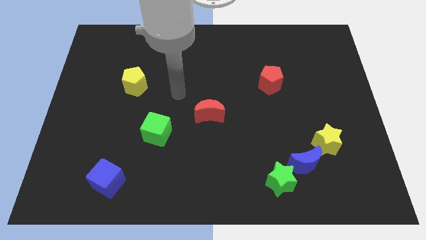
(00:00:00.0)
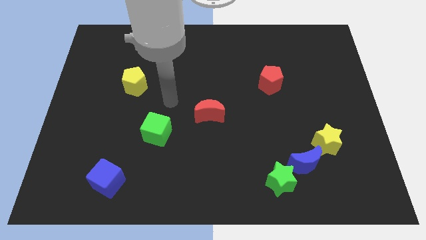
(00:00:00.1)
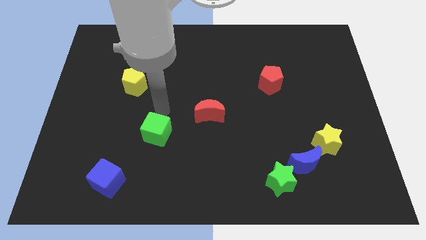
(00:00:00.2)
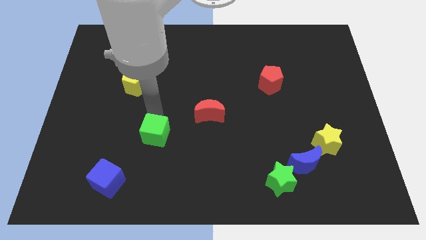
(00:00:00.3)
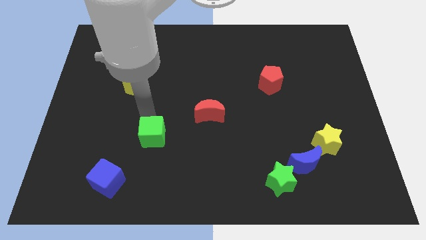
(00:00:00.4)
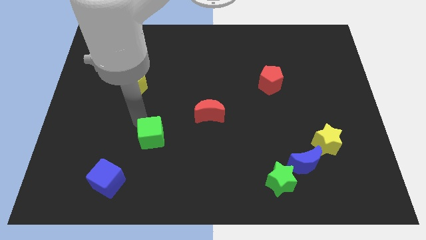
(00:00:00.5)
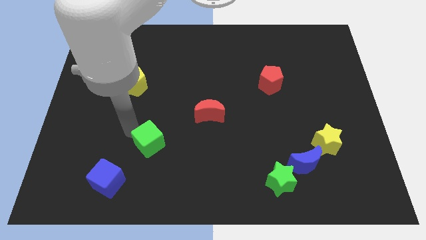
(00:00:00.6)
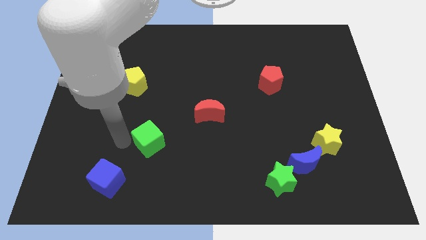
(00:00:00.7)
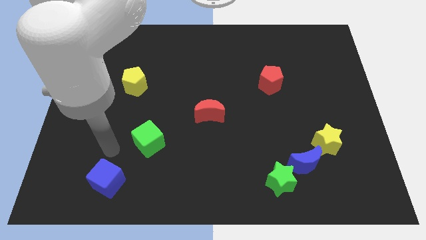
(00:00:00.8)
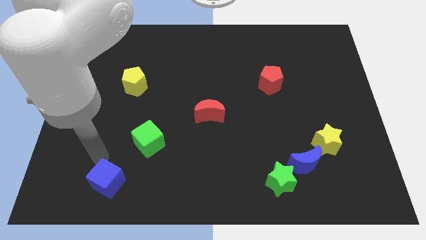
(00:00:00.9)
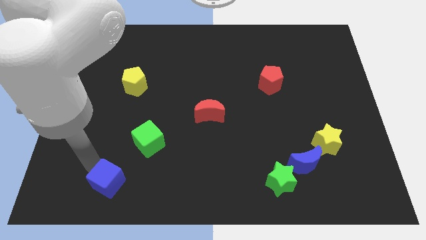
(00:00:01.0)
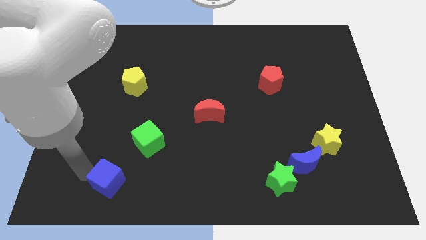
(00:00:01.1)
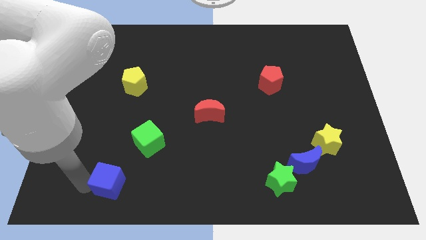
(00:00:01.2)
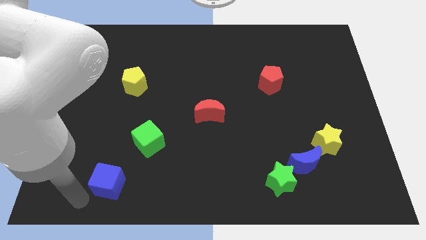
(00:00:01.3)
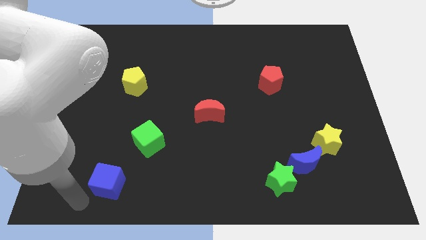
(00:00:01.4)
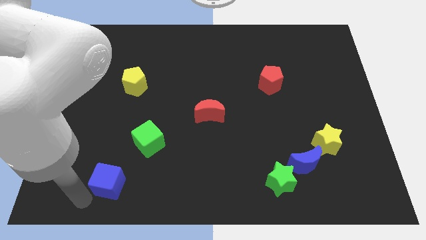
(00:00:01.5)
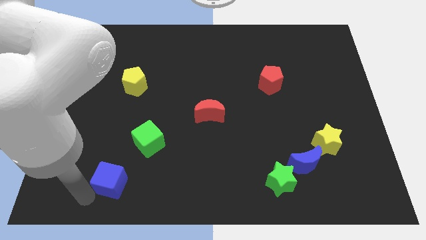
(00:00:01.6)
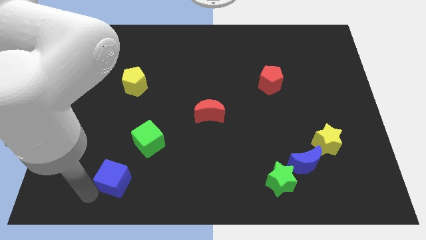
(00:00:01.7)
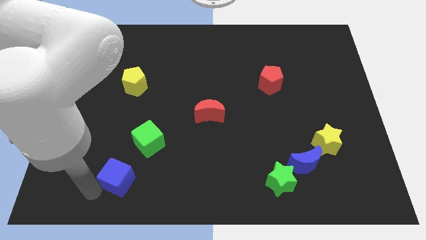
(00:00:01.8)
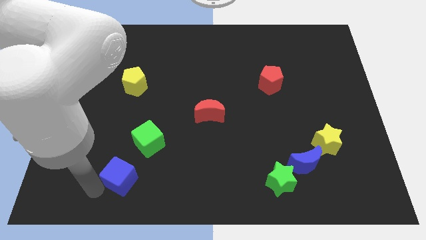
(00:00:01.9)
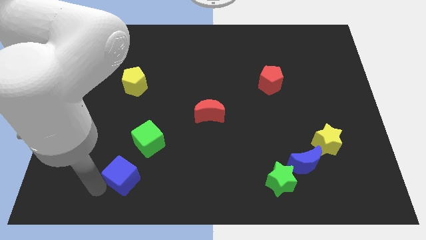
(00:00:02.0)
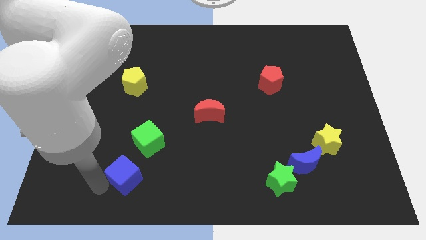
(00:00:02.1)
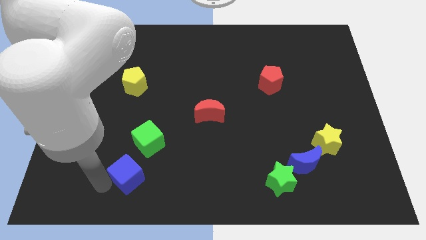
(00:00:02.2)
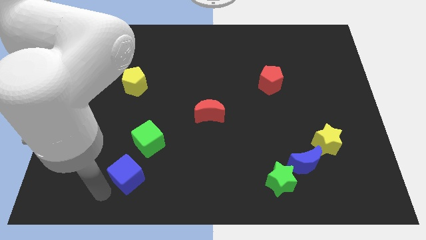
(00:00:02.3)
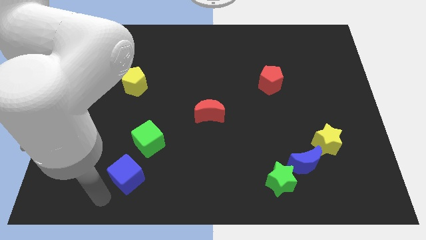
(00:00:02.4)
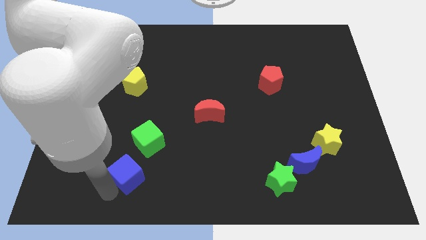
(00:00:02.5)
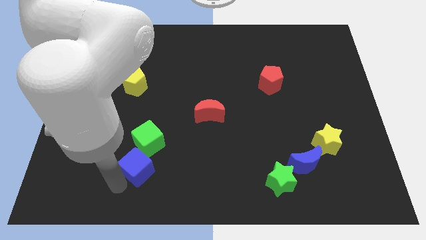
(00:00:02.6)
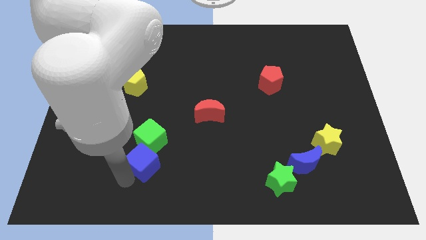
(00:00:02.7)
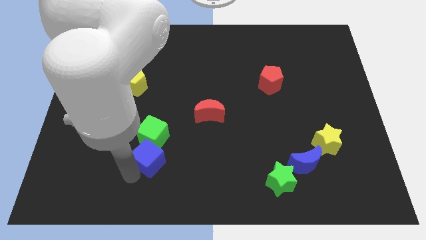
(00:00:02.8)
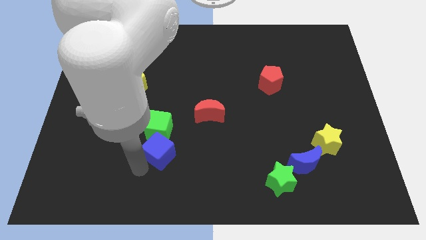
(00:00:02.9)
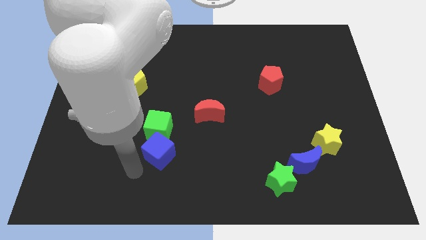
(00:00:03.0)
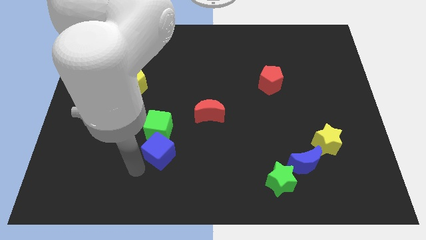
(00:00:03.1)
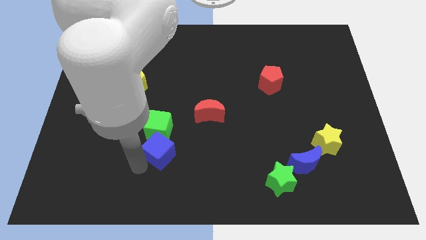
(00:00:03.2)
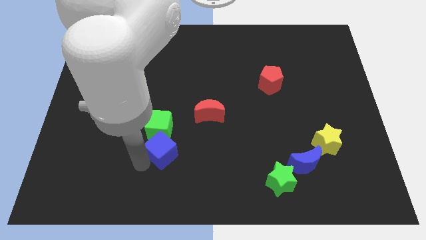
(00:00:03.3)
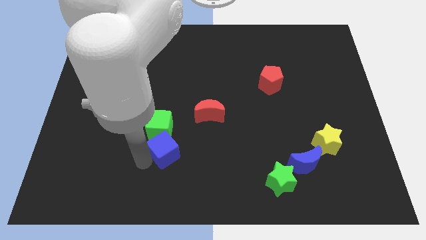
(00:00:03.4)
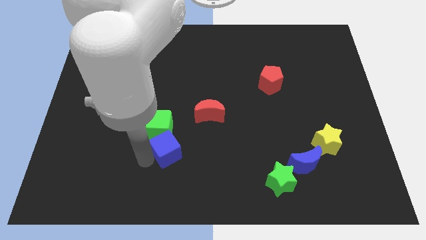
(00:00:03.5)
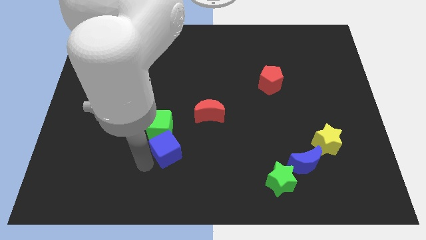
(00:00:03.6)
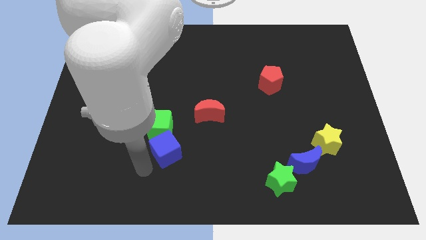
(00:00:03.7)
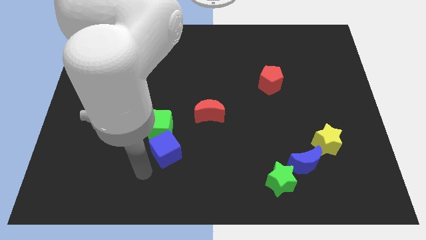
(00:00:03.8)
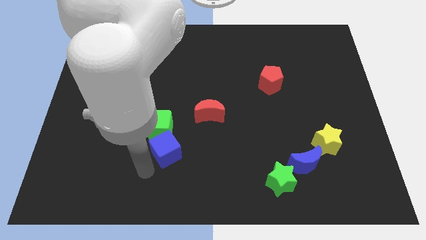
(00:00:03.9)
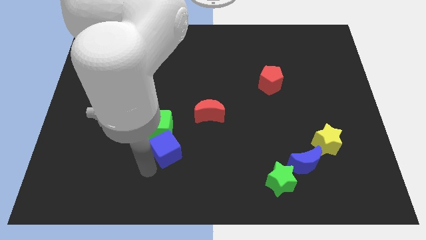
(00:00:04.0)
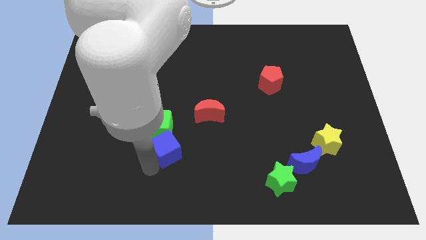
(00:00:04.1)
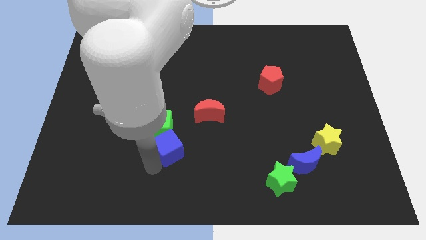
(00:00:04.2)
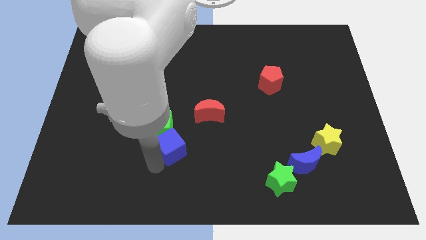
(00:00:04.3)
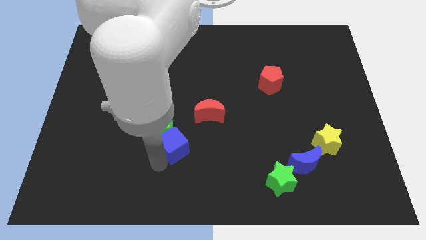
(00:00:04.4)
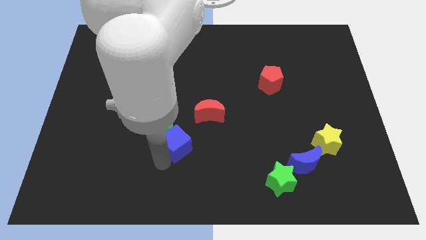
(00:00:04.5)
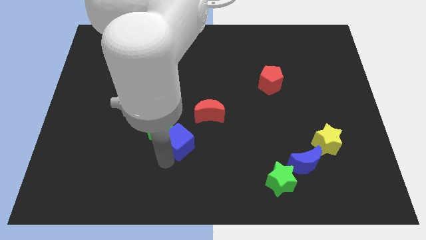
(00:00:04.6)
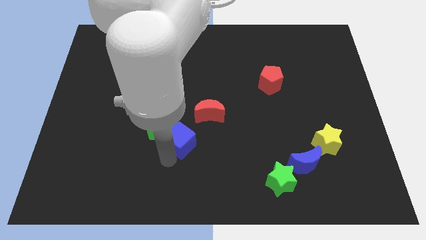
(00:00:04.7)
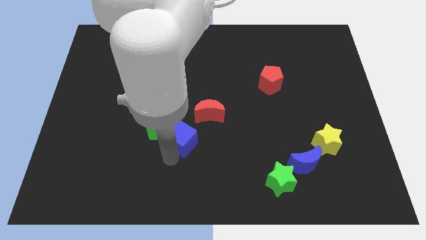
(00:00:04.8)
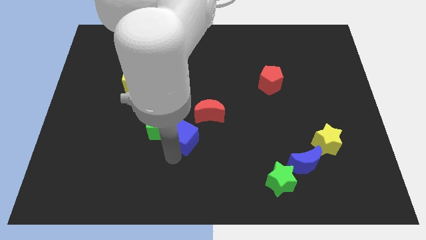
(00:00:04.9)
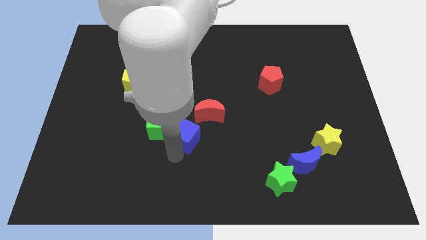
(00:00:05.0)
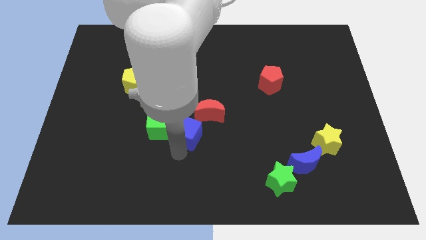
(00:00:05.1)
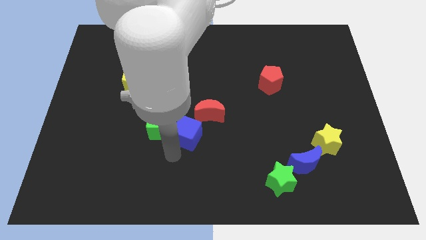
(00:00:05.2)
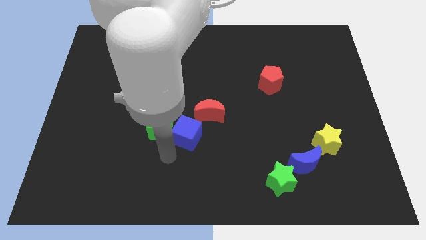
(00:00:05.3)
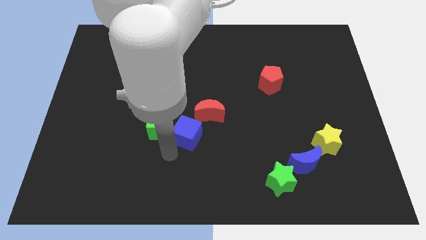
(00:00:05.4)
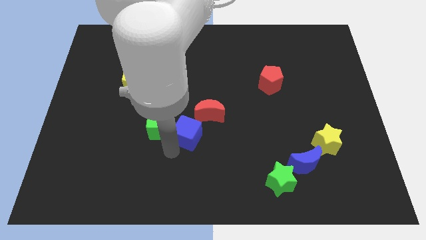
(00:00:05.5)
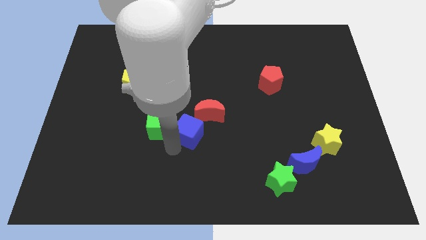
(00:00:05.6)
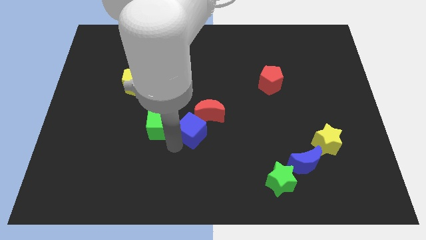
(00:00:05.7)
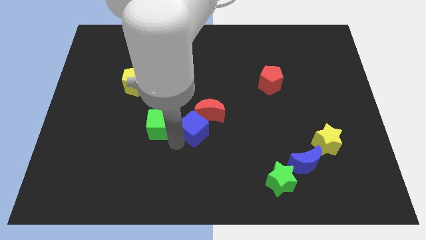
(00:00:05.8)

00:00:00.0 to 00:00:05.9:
move the blue cube to the red moon
